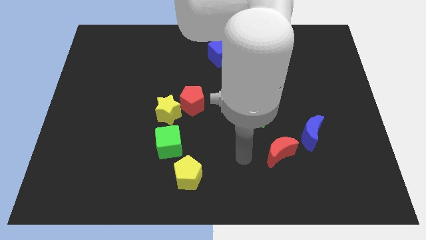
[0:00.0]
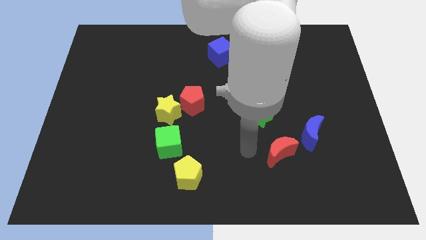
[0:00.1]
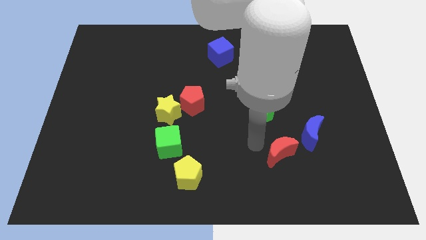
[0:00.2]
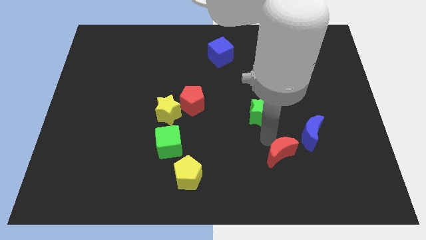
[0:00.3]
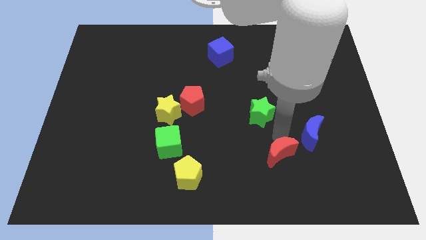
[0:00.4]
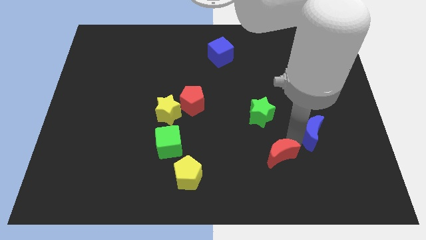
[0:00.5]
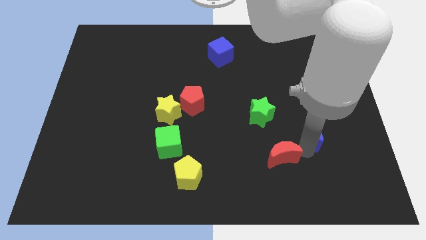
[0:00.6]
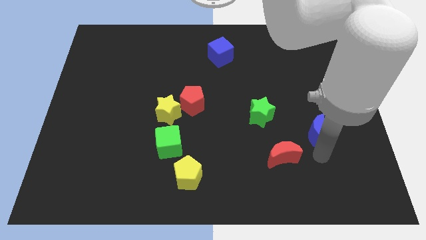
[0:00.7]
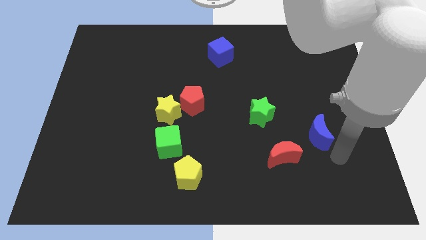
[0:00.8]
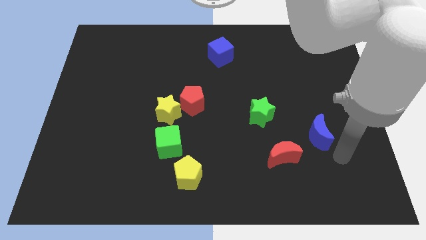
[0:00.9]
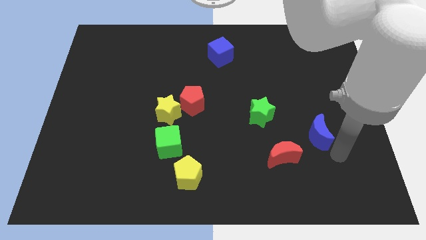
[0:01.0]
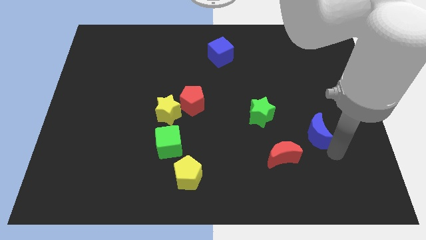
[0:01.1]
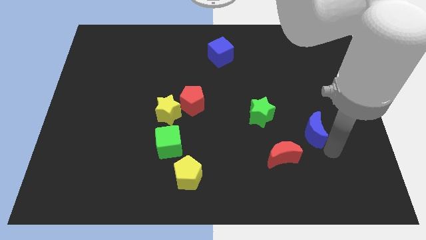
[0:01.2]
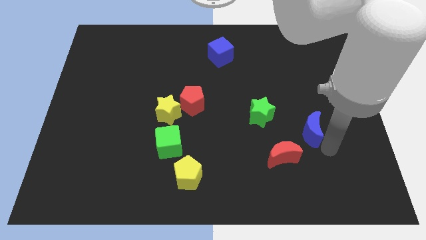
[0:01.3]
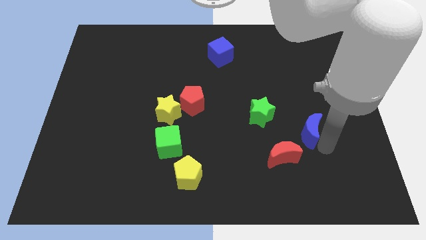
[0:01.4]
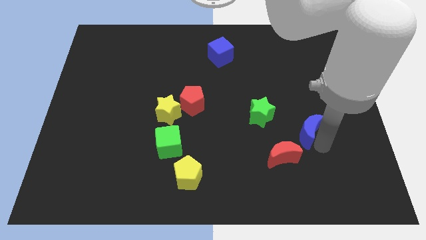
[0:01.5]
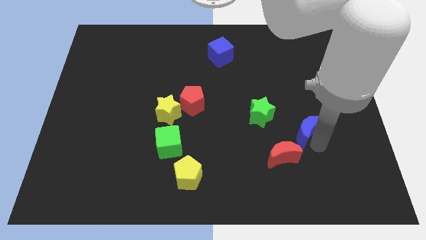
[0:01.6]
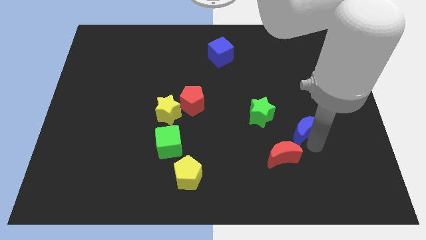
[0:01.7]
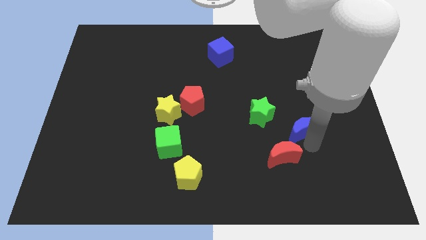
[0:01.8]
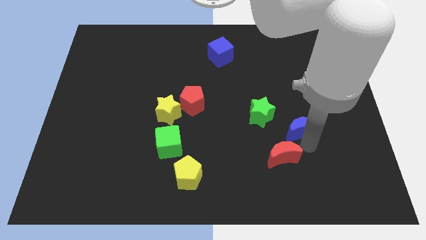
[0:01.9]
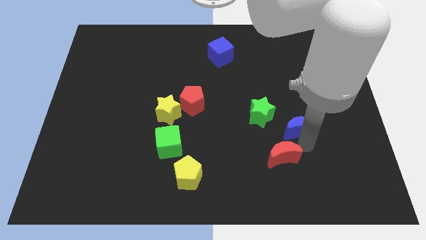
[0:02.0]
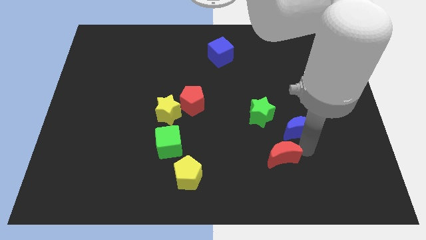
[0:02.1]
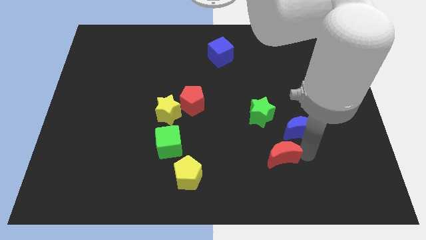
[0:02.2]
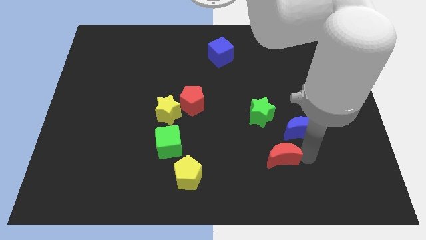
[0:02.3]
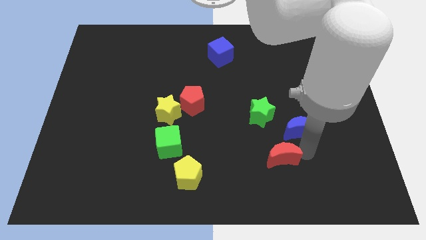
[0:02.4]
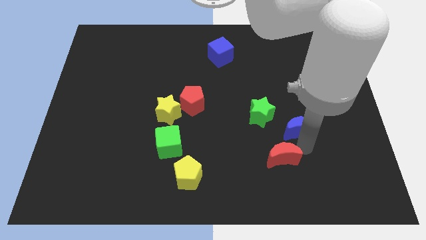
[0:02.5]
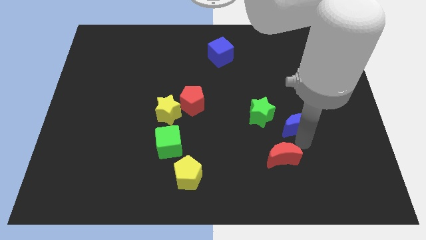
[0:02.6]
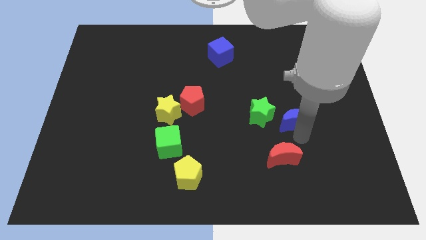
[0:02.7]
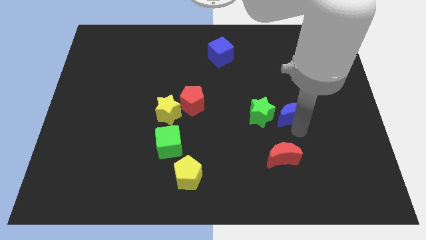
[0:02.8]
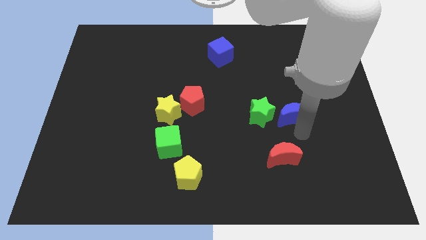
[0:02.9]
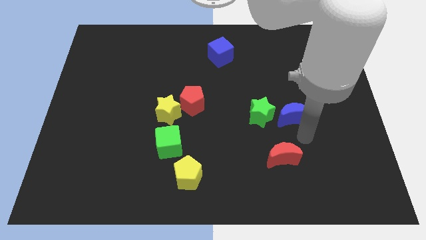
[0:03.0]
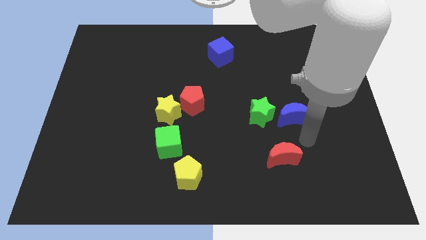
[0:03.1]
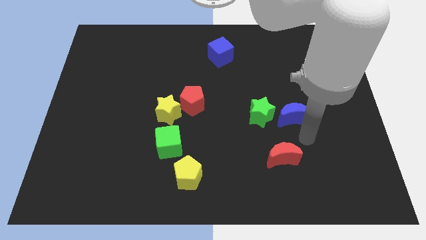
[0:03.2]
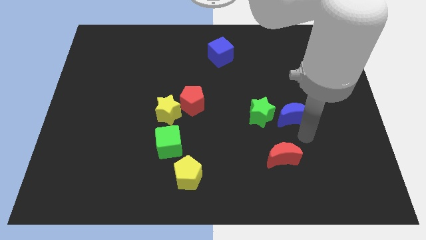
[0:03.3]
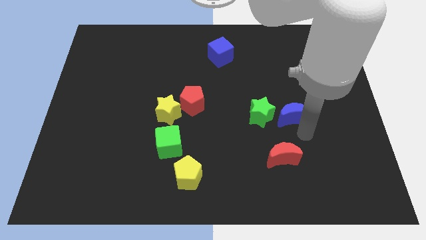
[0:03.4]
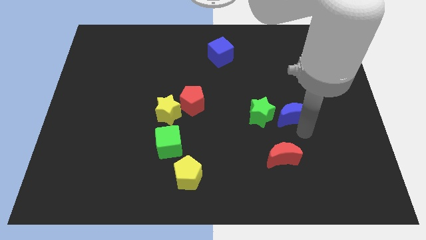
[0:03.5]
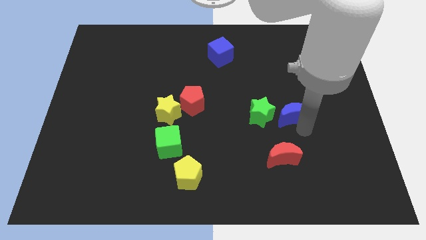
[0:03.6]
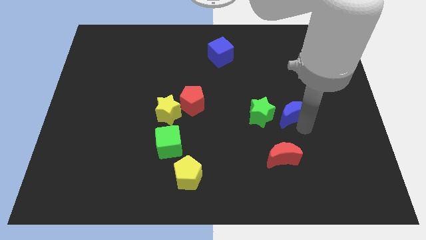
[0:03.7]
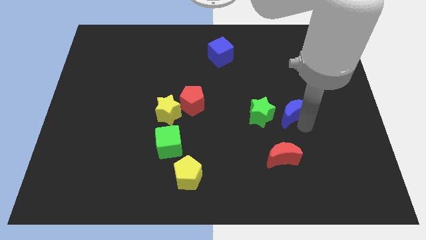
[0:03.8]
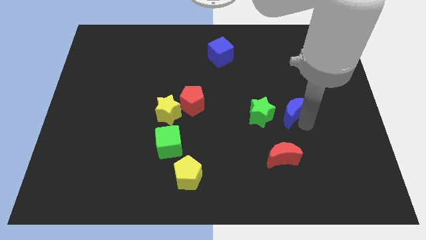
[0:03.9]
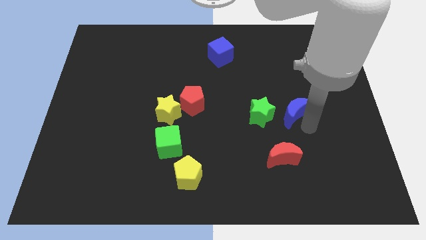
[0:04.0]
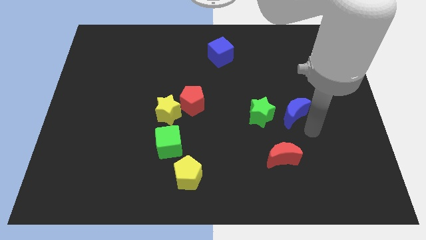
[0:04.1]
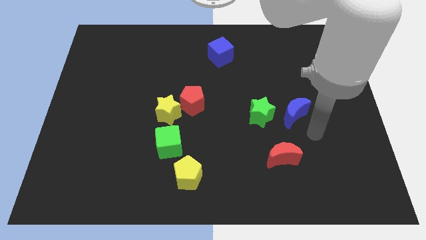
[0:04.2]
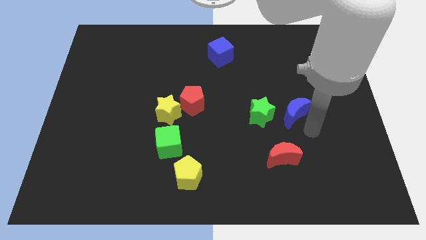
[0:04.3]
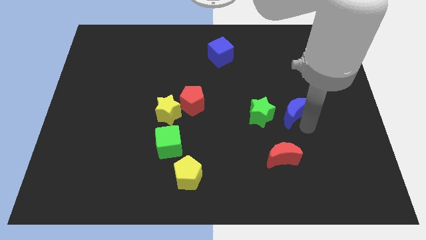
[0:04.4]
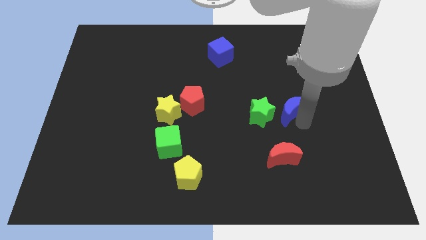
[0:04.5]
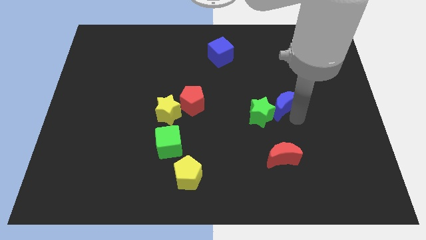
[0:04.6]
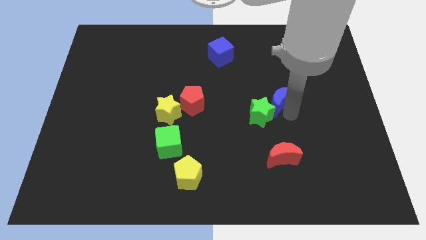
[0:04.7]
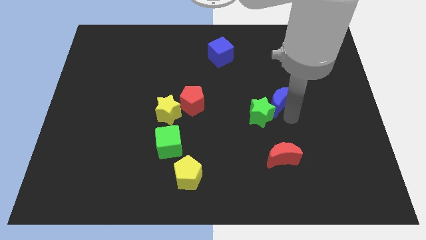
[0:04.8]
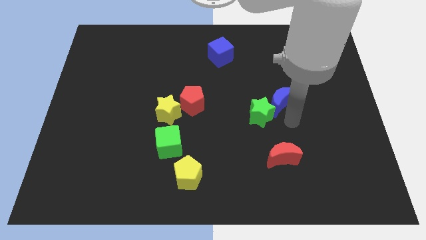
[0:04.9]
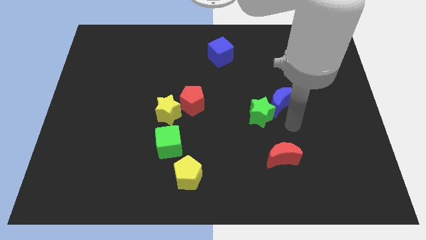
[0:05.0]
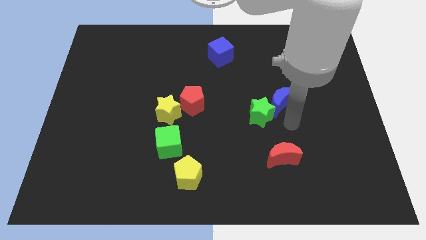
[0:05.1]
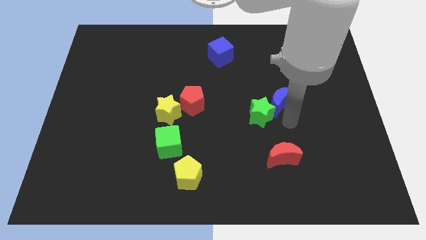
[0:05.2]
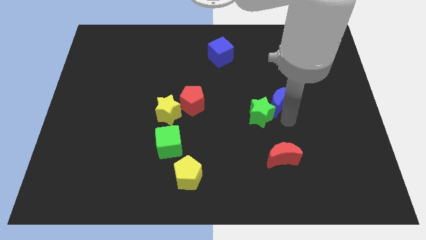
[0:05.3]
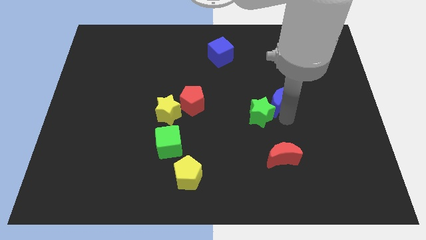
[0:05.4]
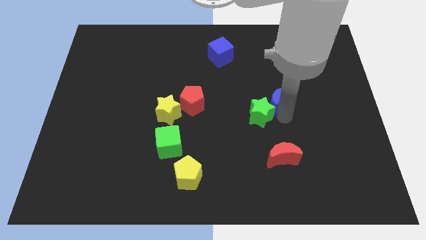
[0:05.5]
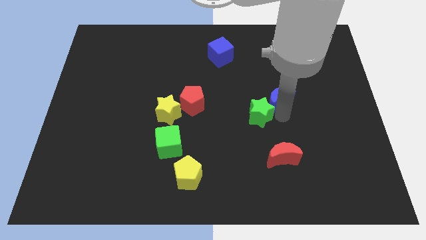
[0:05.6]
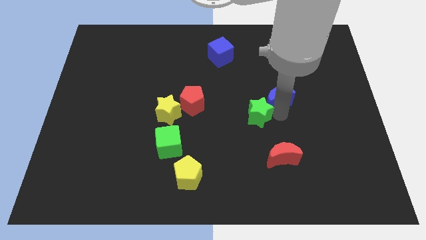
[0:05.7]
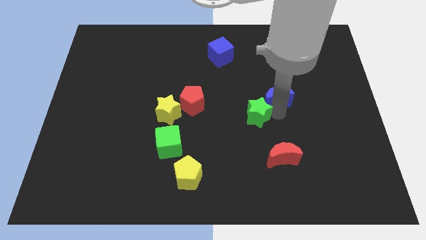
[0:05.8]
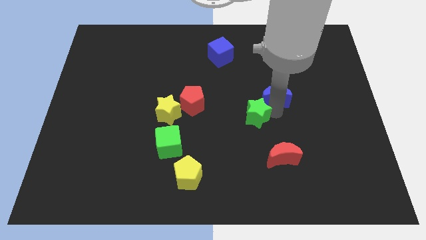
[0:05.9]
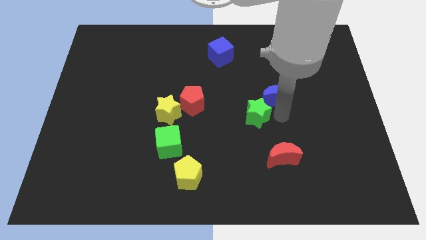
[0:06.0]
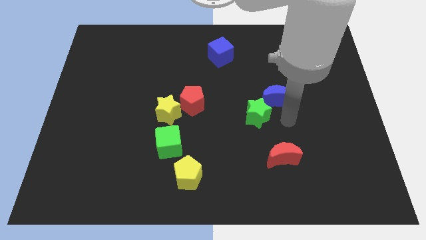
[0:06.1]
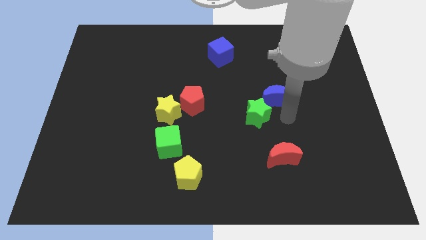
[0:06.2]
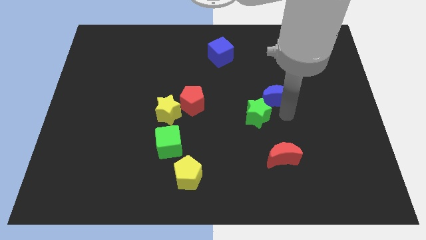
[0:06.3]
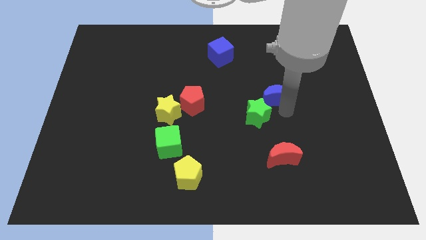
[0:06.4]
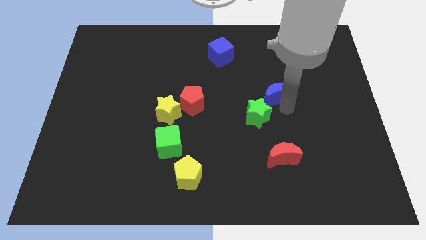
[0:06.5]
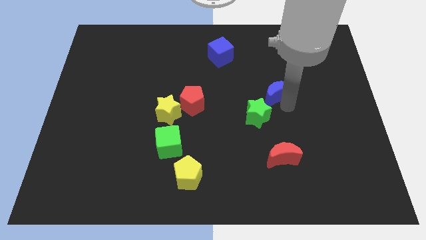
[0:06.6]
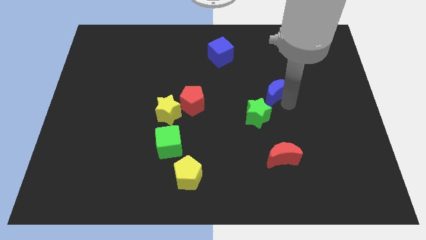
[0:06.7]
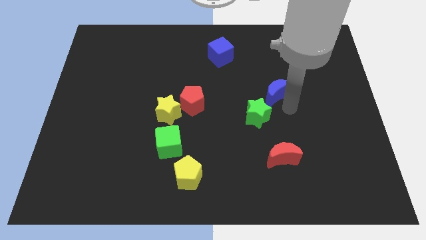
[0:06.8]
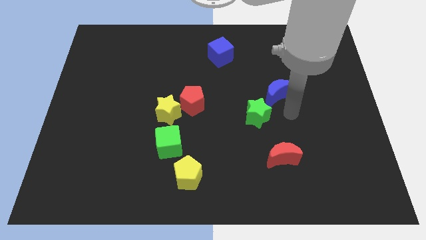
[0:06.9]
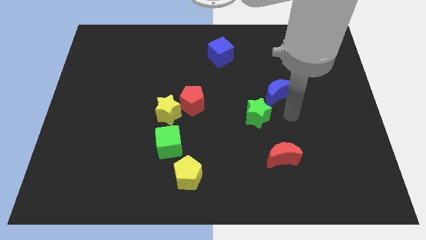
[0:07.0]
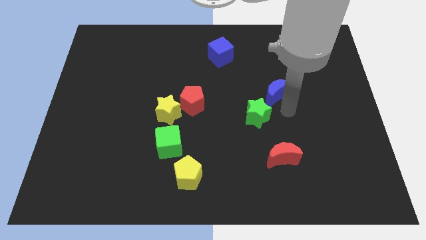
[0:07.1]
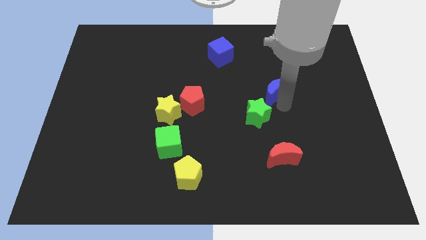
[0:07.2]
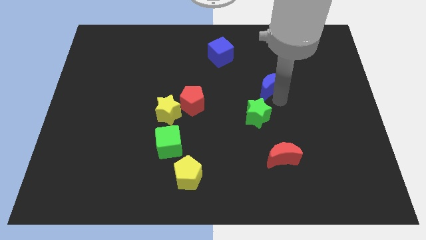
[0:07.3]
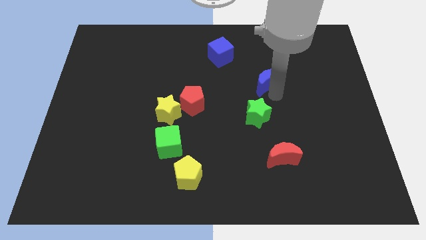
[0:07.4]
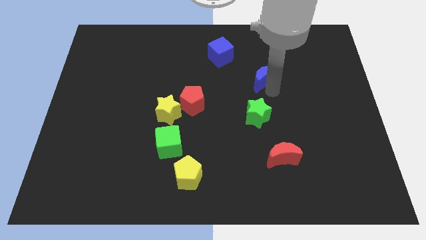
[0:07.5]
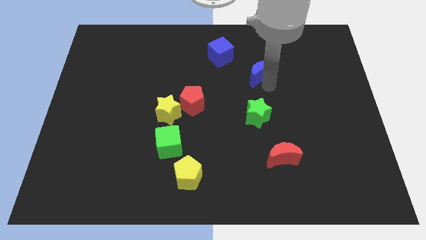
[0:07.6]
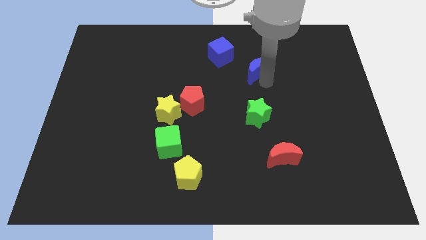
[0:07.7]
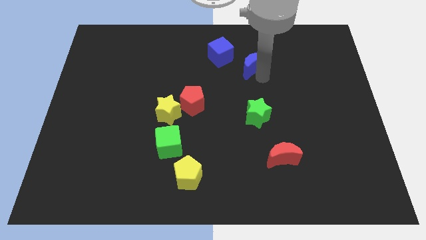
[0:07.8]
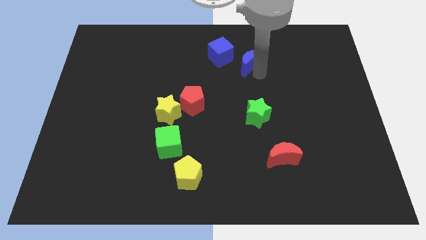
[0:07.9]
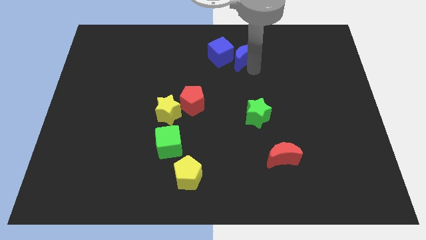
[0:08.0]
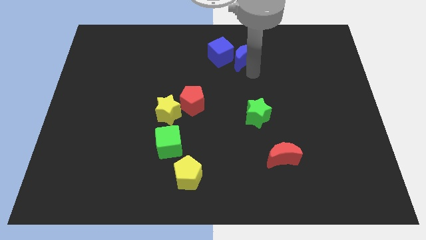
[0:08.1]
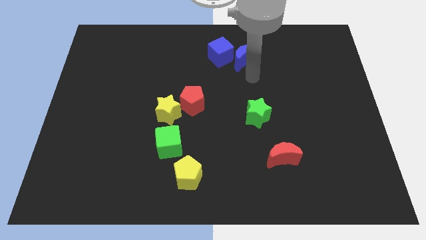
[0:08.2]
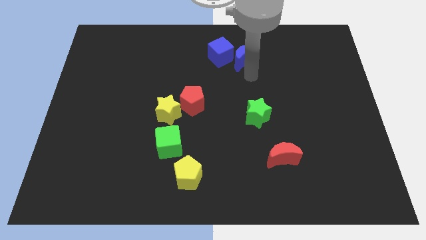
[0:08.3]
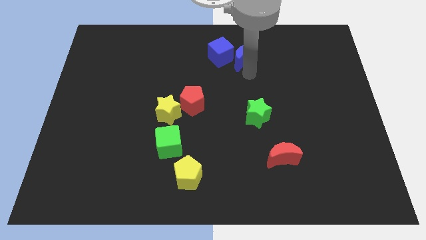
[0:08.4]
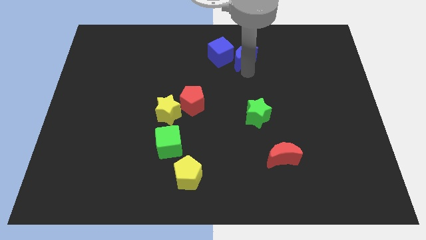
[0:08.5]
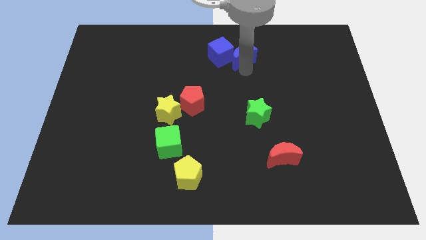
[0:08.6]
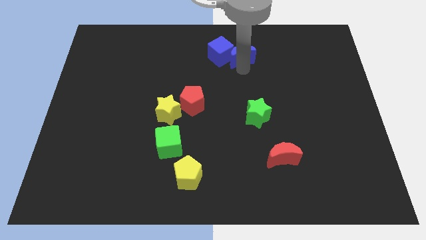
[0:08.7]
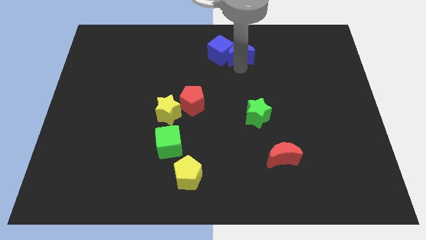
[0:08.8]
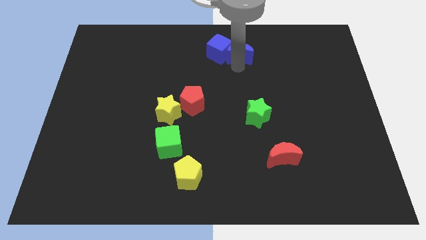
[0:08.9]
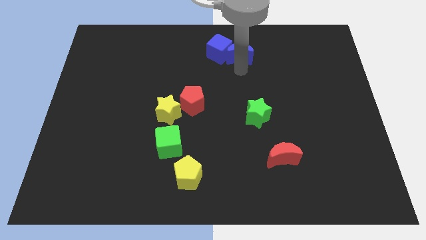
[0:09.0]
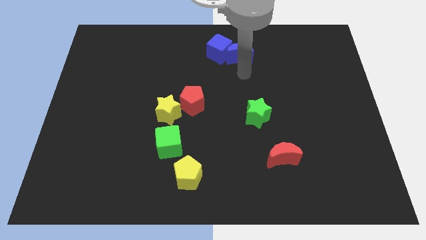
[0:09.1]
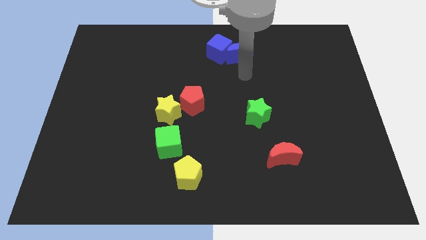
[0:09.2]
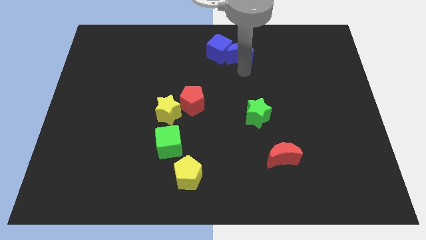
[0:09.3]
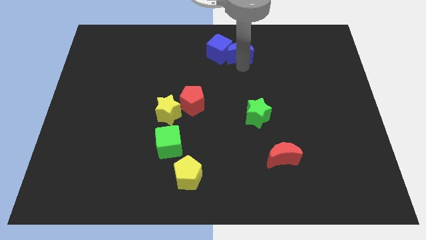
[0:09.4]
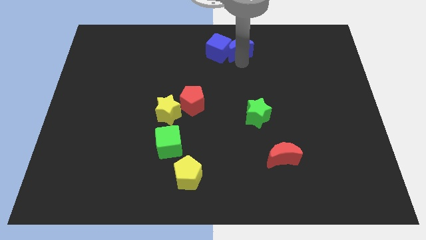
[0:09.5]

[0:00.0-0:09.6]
push the blue moon to the towards your base
